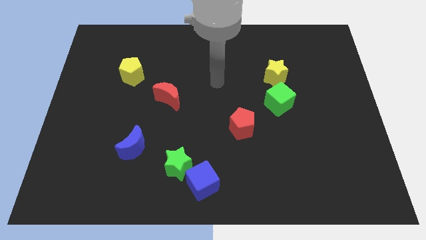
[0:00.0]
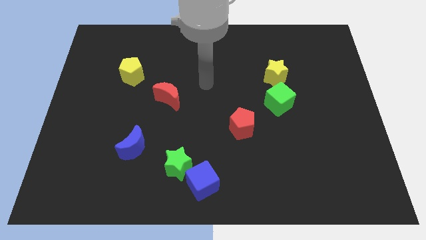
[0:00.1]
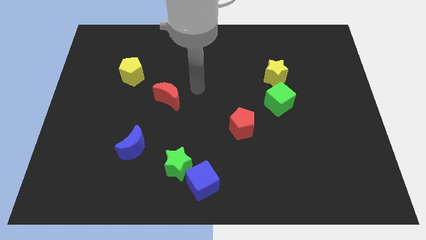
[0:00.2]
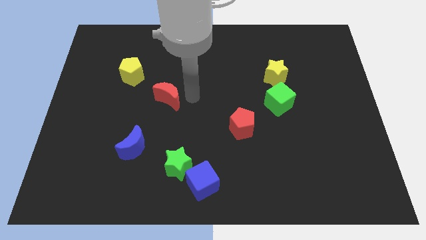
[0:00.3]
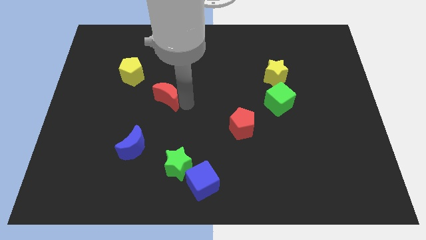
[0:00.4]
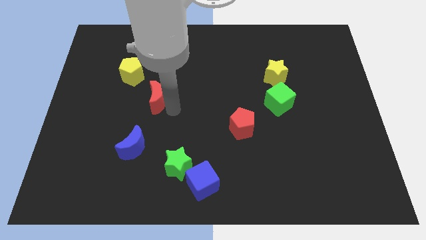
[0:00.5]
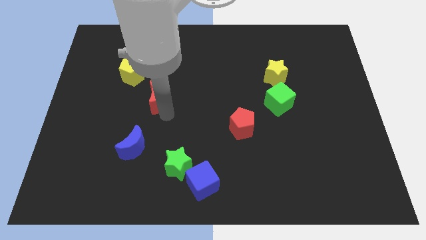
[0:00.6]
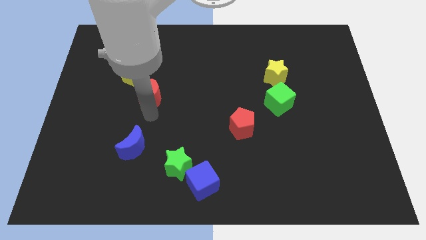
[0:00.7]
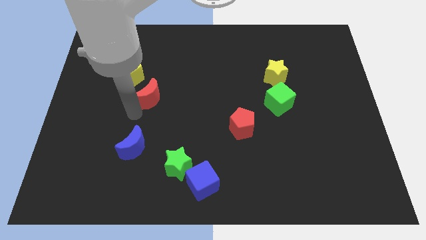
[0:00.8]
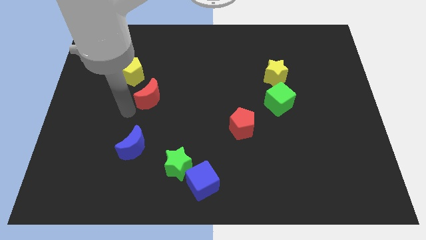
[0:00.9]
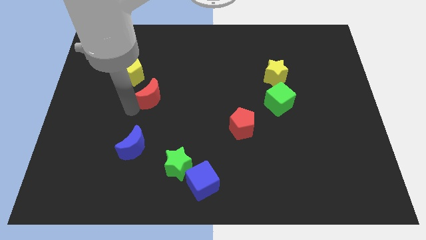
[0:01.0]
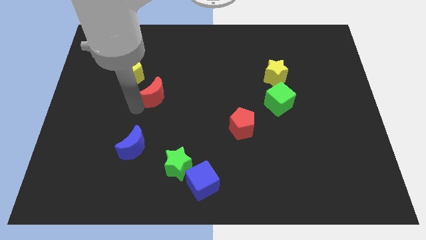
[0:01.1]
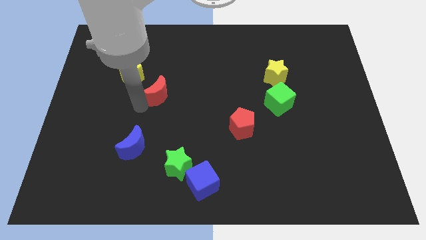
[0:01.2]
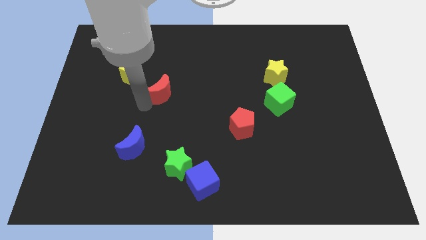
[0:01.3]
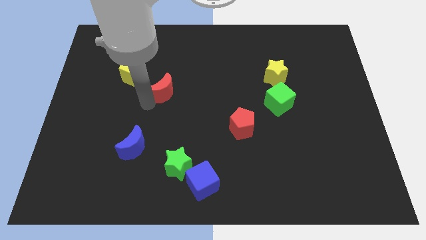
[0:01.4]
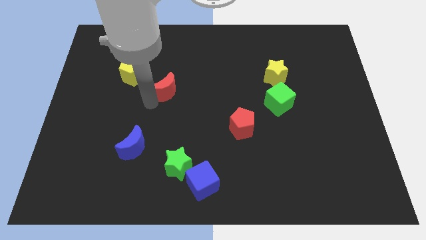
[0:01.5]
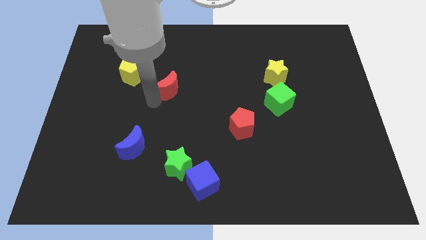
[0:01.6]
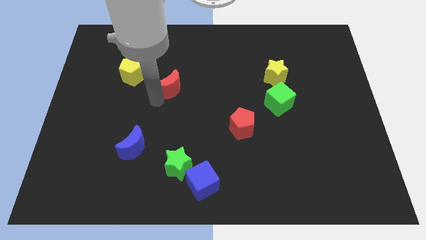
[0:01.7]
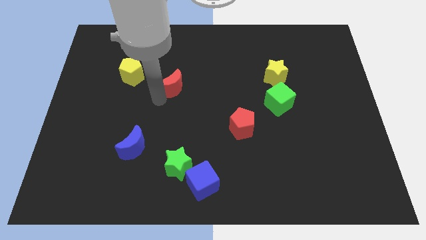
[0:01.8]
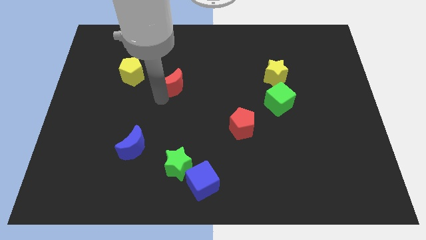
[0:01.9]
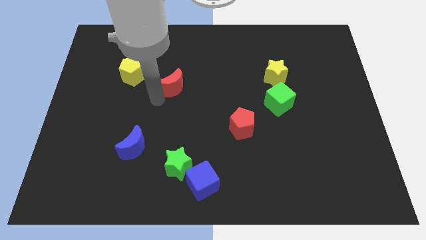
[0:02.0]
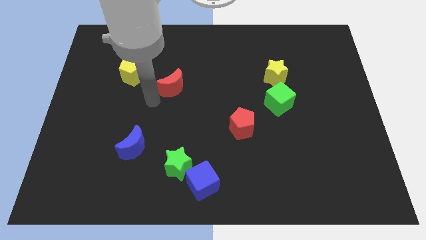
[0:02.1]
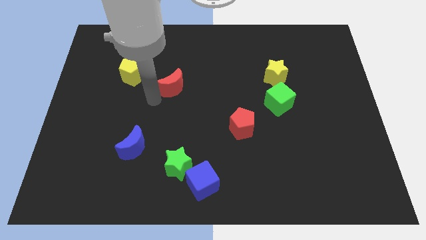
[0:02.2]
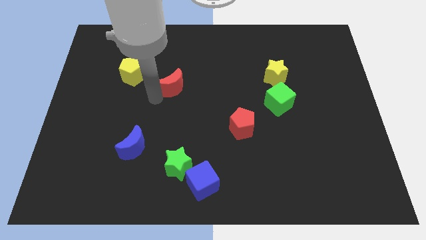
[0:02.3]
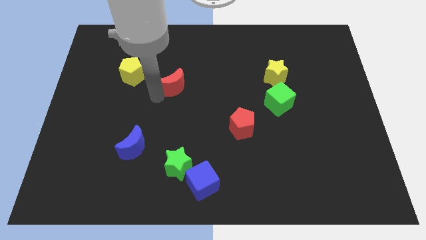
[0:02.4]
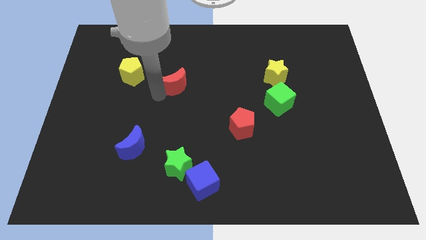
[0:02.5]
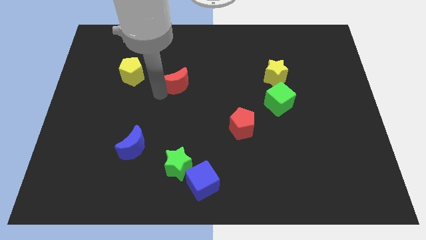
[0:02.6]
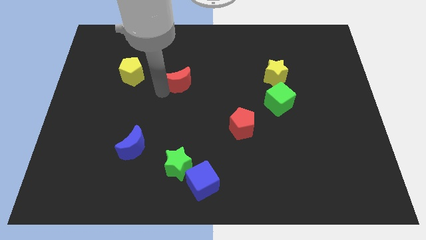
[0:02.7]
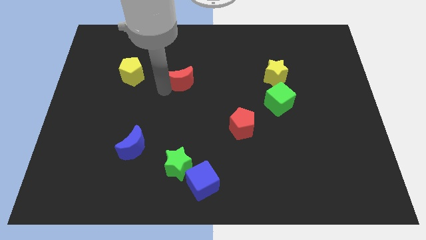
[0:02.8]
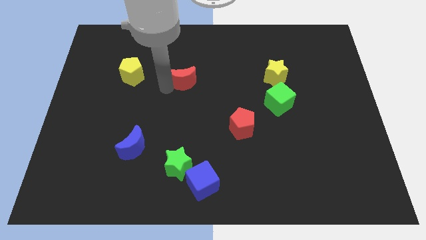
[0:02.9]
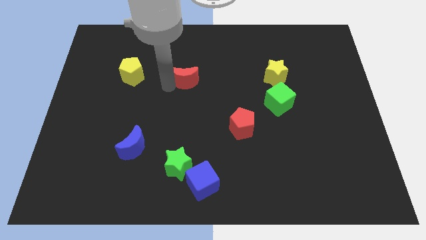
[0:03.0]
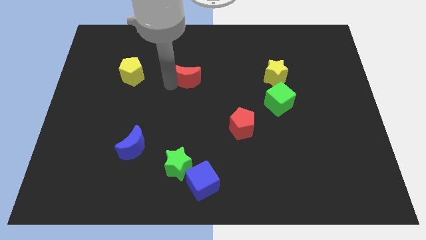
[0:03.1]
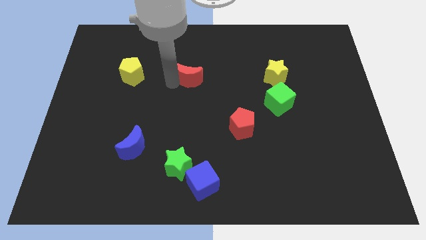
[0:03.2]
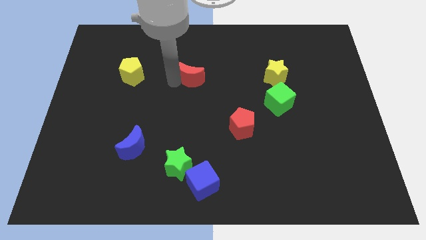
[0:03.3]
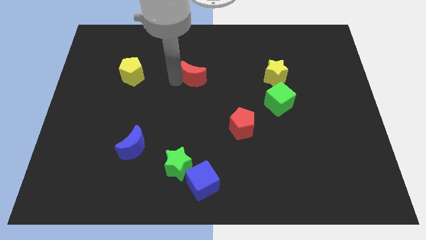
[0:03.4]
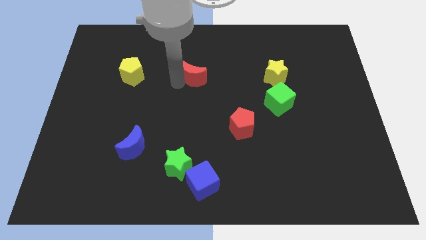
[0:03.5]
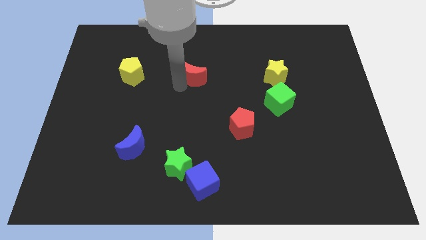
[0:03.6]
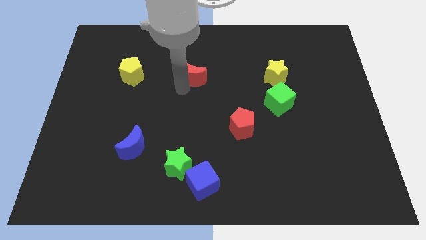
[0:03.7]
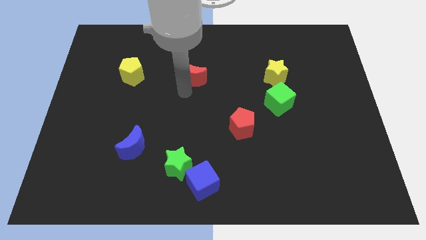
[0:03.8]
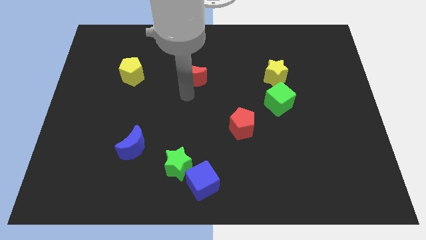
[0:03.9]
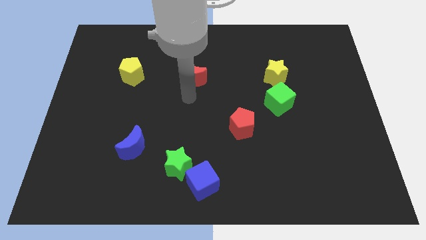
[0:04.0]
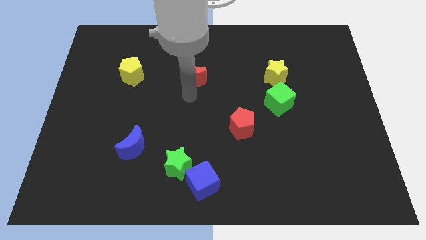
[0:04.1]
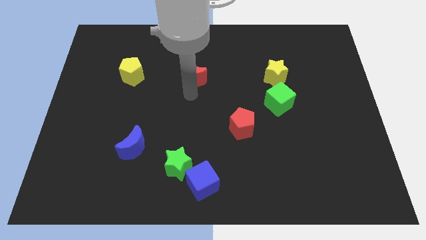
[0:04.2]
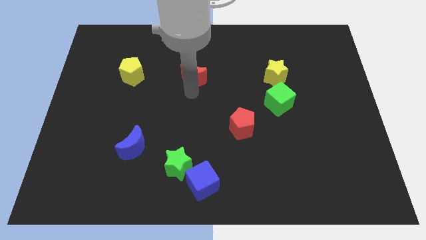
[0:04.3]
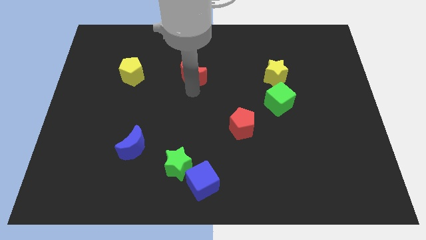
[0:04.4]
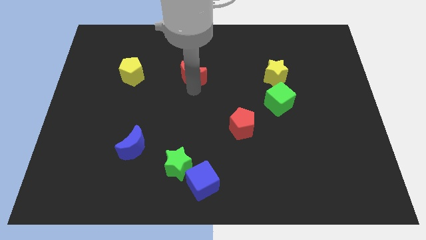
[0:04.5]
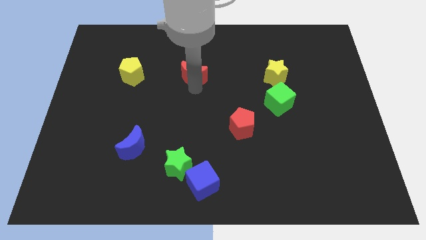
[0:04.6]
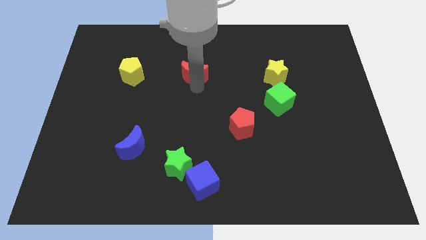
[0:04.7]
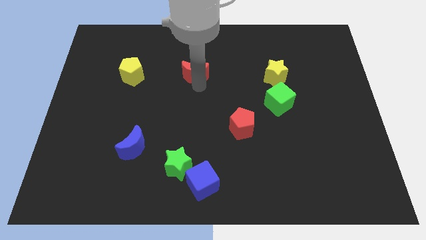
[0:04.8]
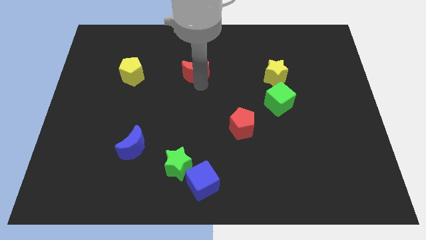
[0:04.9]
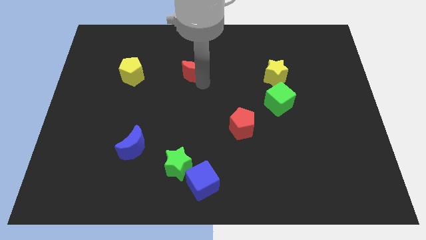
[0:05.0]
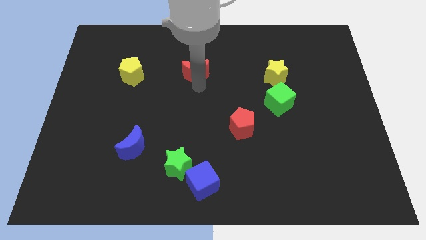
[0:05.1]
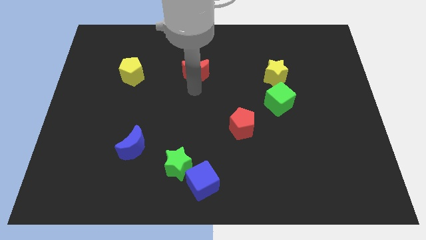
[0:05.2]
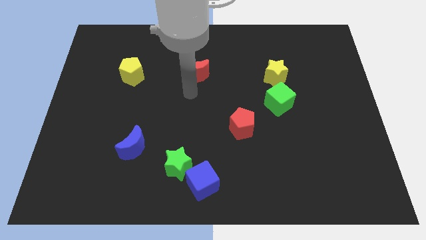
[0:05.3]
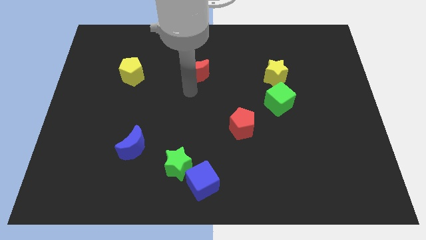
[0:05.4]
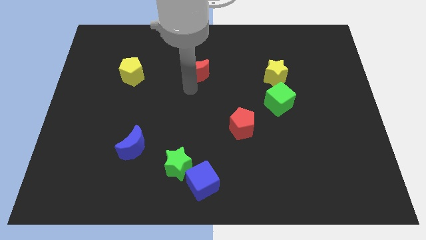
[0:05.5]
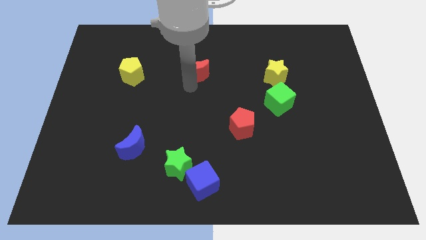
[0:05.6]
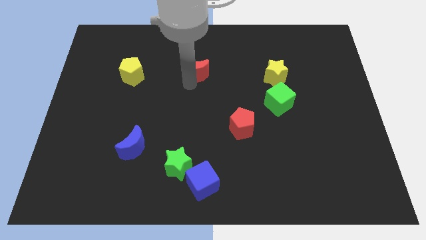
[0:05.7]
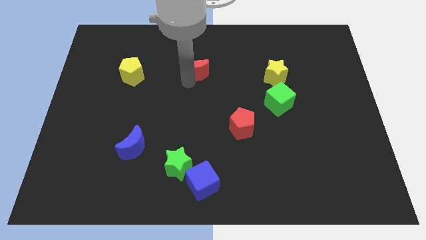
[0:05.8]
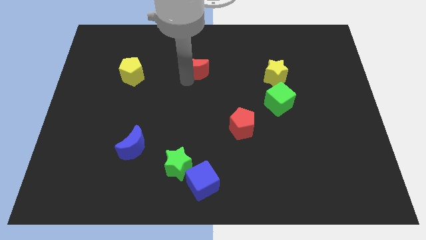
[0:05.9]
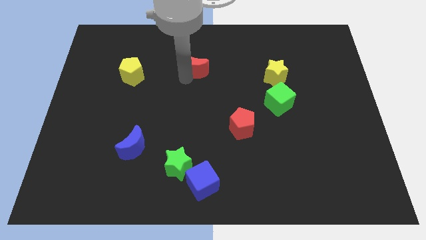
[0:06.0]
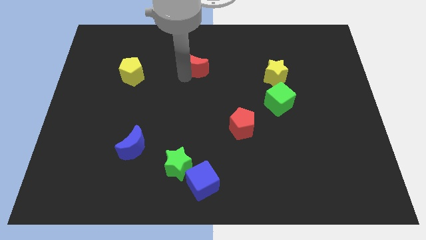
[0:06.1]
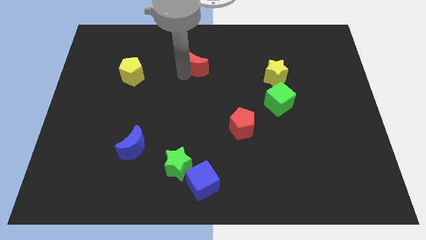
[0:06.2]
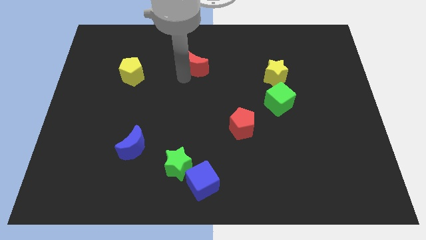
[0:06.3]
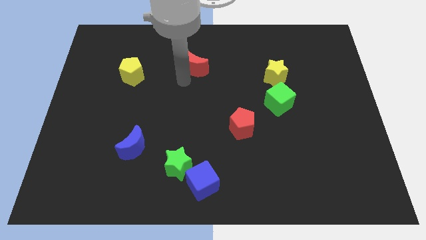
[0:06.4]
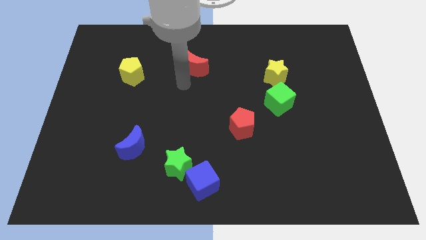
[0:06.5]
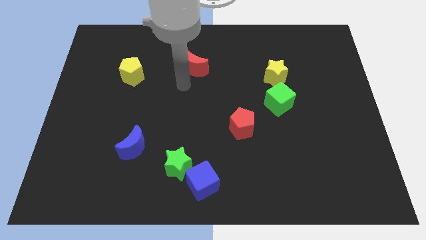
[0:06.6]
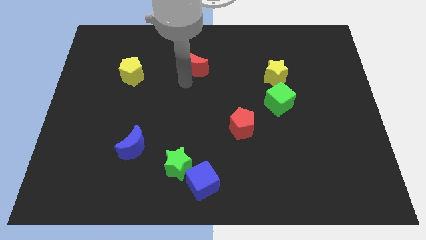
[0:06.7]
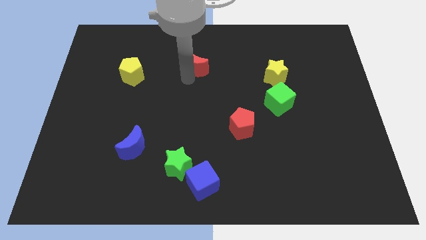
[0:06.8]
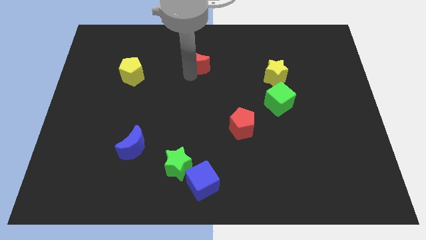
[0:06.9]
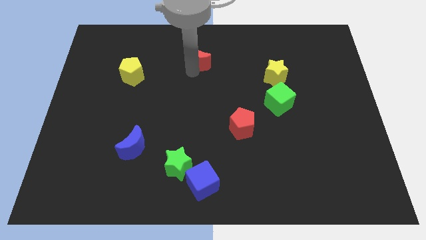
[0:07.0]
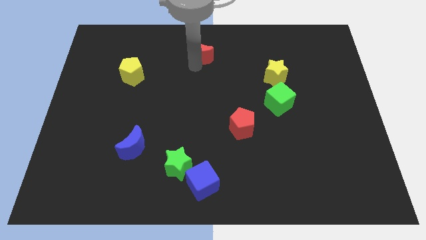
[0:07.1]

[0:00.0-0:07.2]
slide the red moon to the towards your base

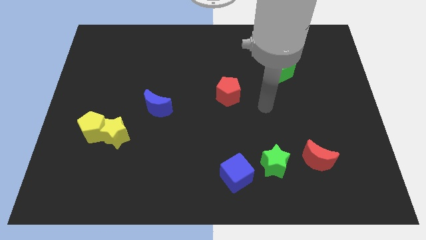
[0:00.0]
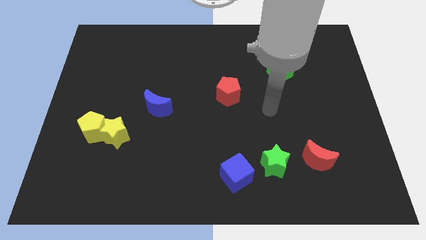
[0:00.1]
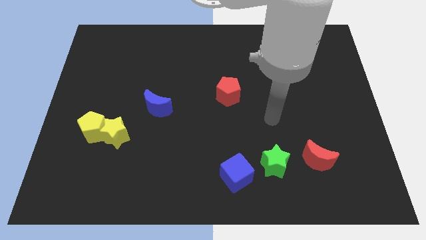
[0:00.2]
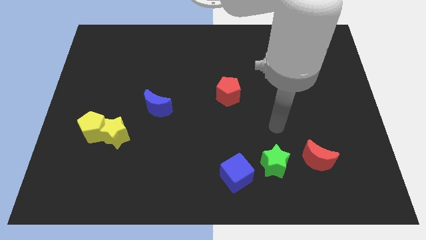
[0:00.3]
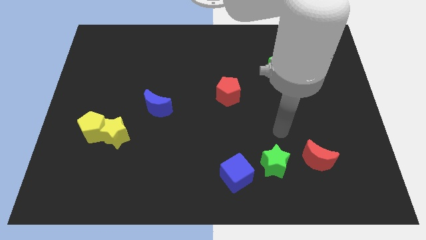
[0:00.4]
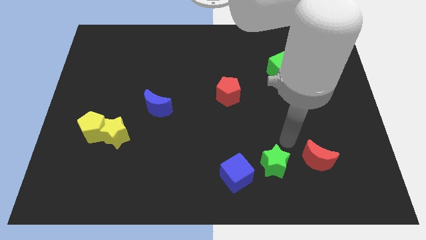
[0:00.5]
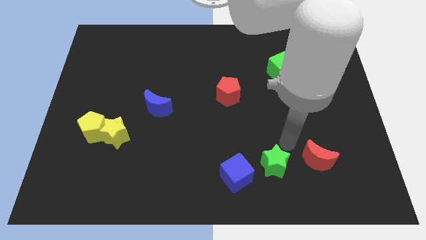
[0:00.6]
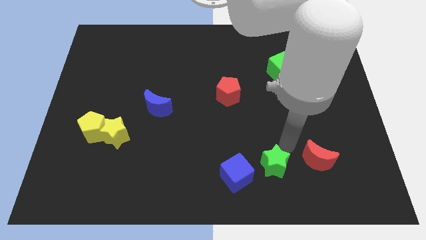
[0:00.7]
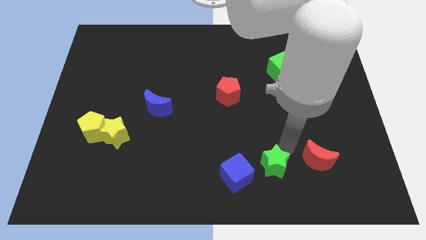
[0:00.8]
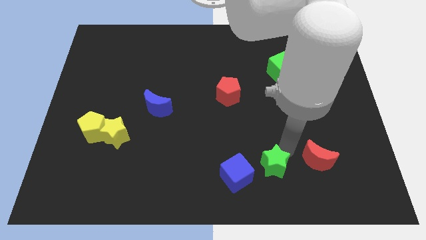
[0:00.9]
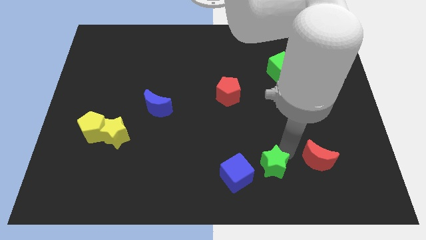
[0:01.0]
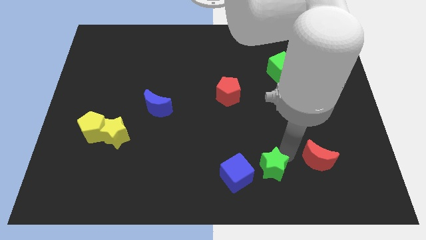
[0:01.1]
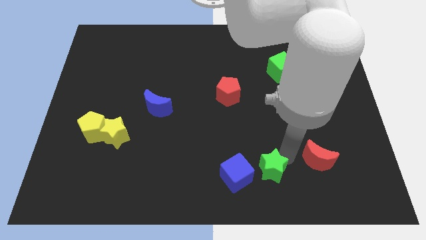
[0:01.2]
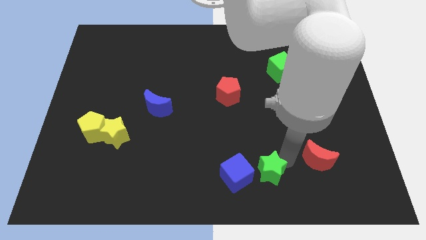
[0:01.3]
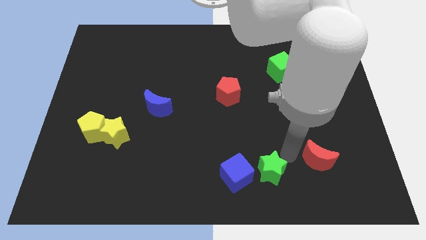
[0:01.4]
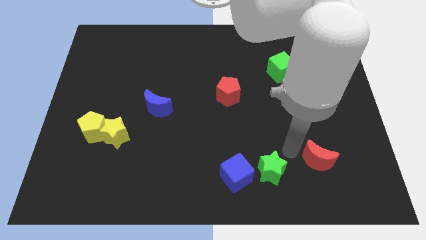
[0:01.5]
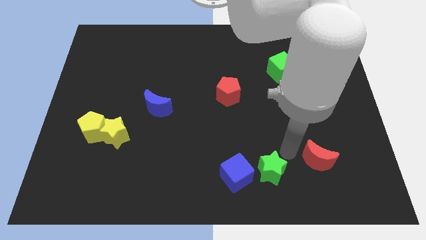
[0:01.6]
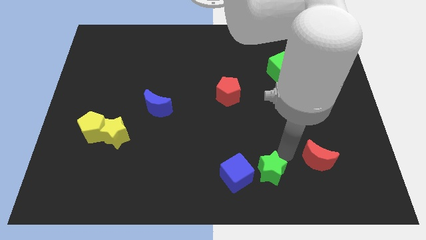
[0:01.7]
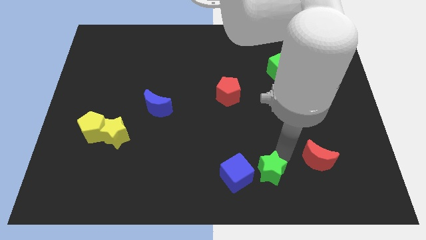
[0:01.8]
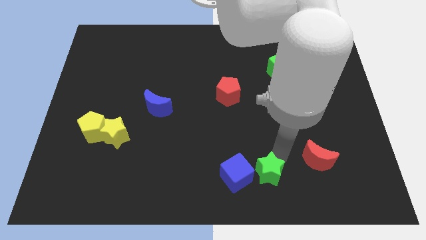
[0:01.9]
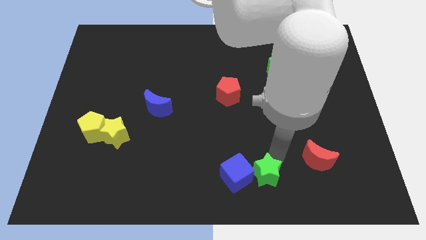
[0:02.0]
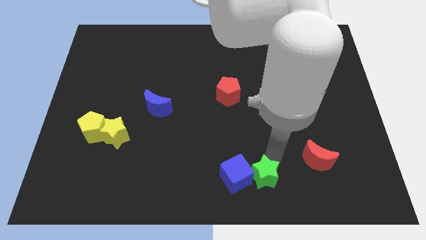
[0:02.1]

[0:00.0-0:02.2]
move the green star to the bottom side
